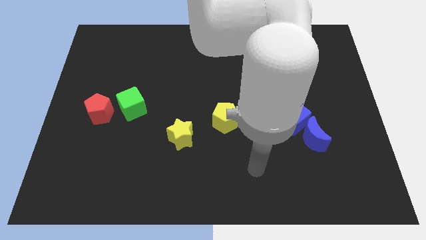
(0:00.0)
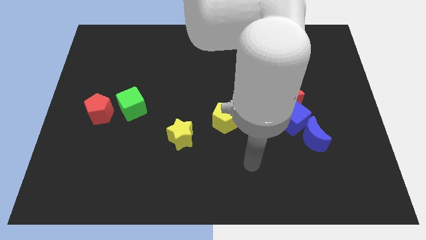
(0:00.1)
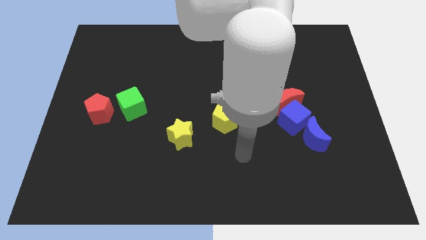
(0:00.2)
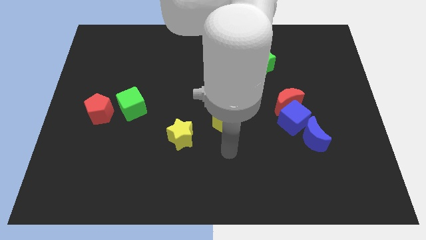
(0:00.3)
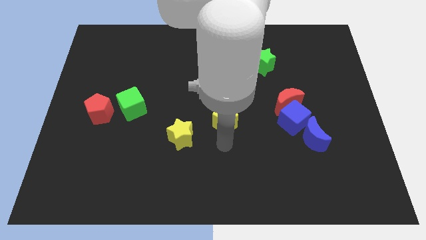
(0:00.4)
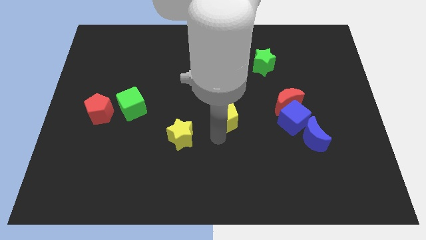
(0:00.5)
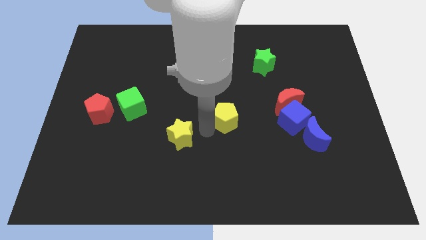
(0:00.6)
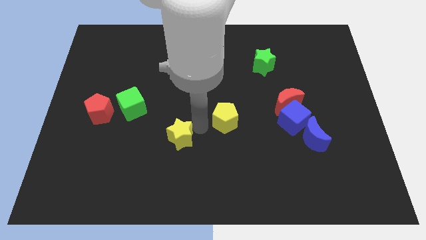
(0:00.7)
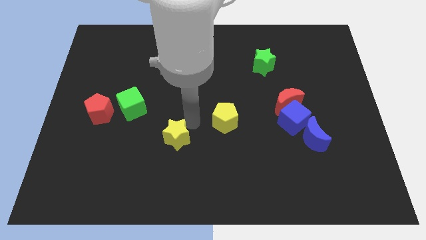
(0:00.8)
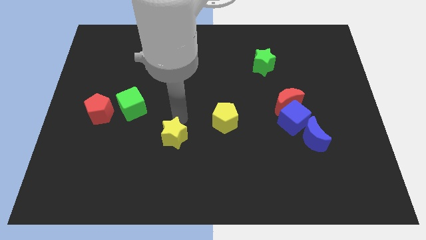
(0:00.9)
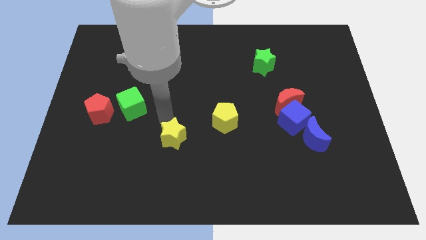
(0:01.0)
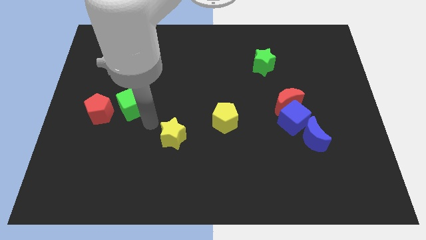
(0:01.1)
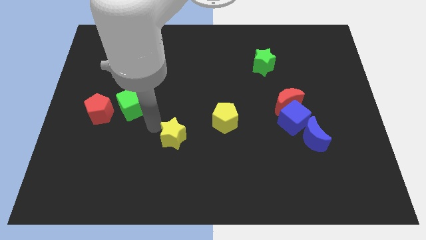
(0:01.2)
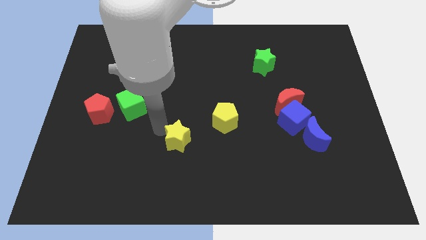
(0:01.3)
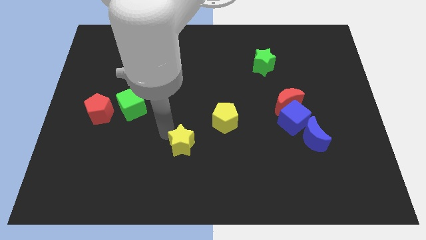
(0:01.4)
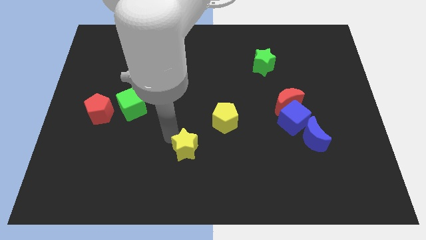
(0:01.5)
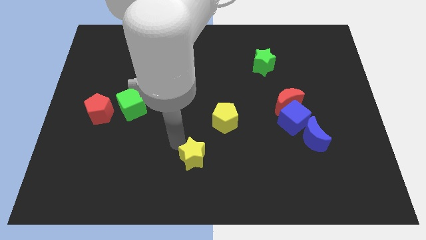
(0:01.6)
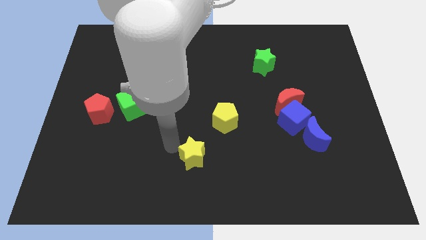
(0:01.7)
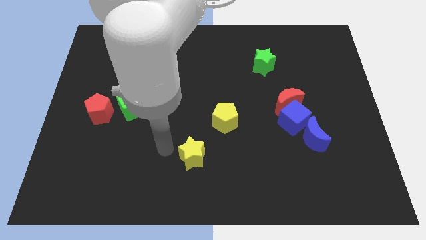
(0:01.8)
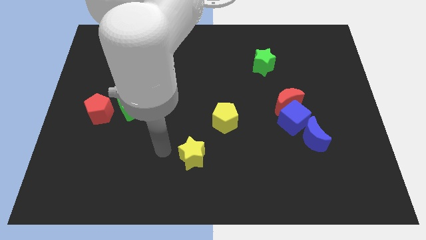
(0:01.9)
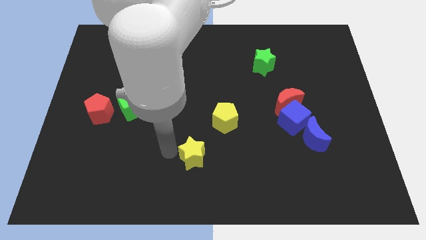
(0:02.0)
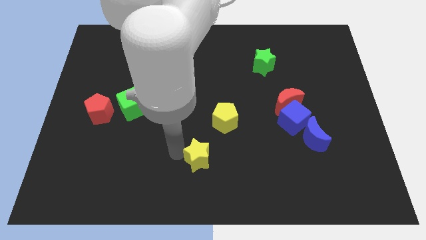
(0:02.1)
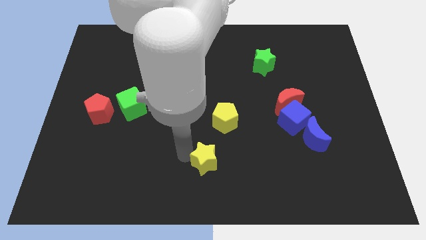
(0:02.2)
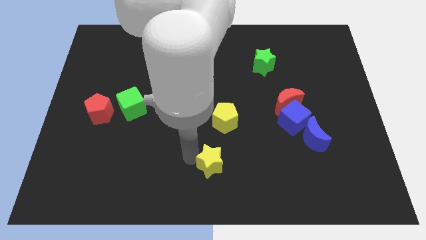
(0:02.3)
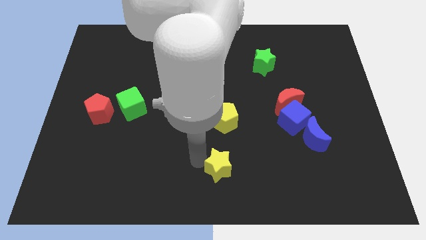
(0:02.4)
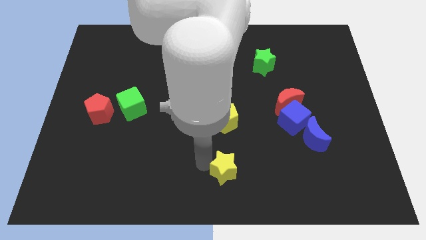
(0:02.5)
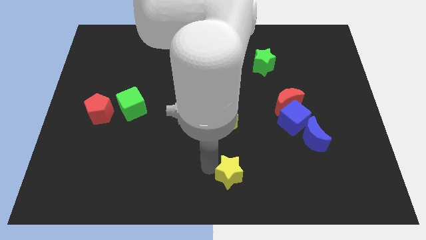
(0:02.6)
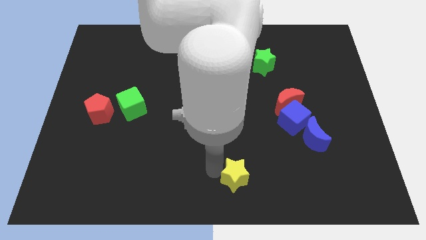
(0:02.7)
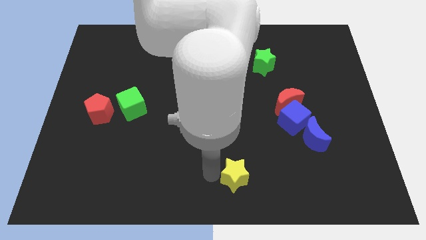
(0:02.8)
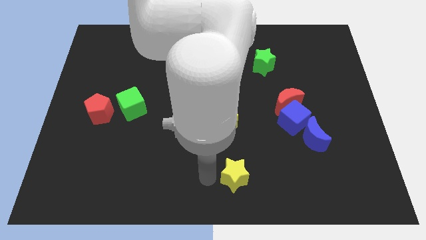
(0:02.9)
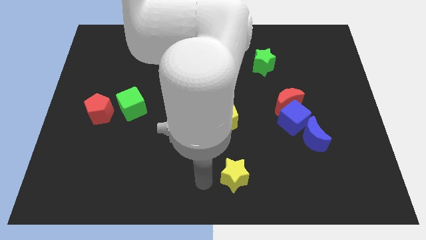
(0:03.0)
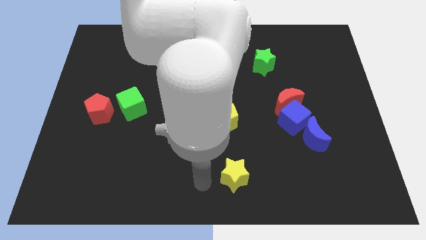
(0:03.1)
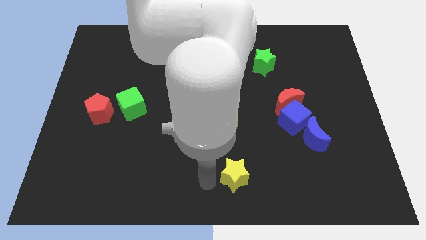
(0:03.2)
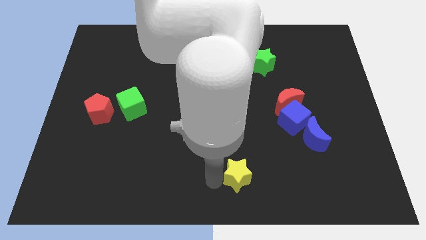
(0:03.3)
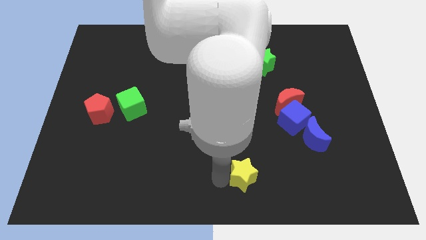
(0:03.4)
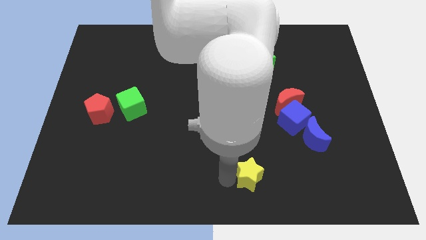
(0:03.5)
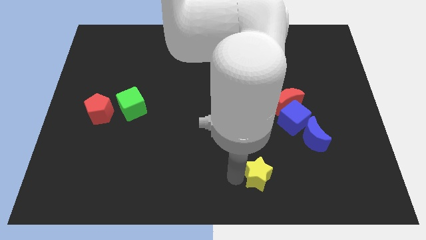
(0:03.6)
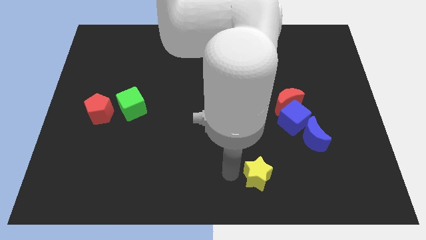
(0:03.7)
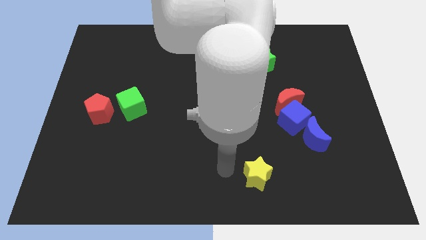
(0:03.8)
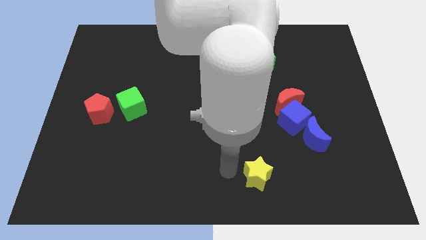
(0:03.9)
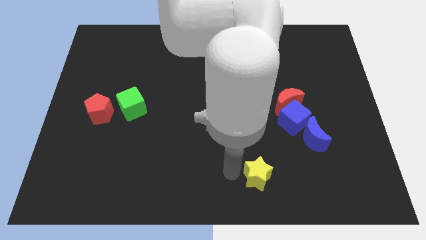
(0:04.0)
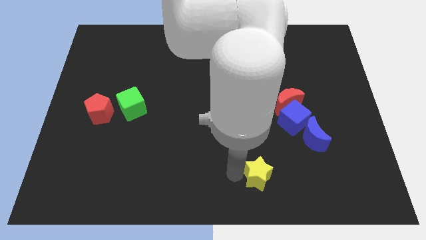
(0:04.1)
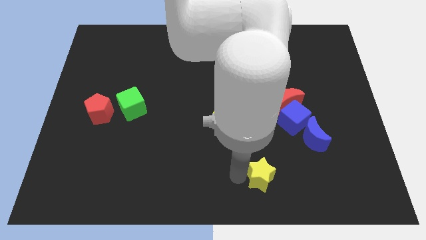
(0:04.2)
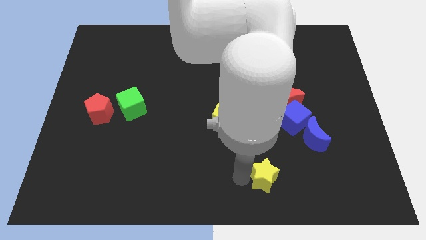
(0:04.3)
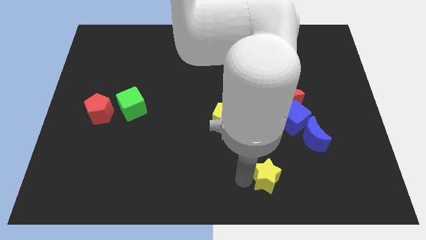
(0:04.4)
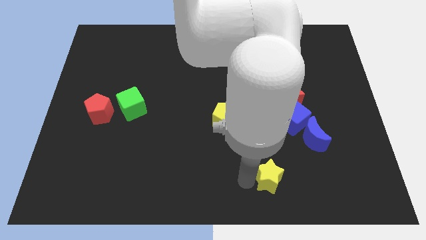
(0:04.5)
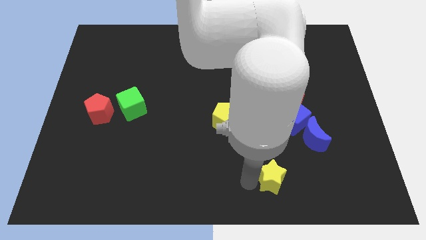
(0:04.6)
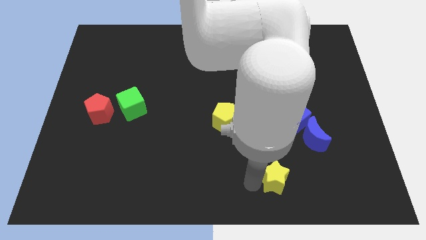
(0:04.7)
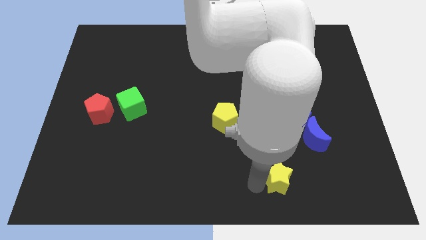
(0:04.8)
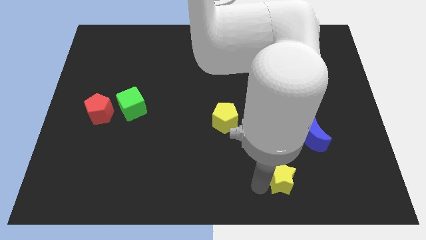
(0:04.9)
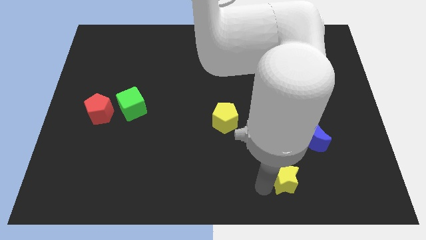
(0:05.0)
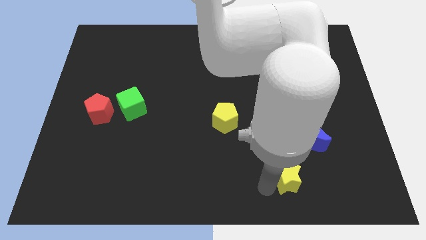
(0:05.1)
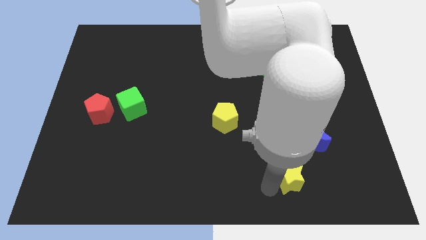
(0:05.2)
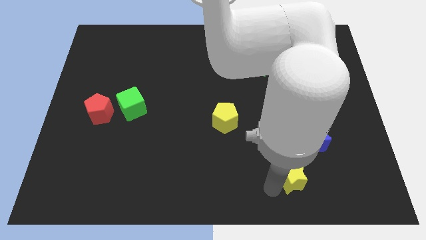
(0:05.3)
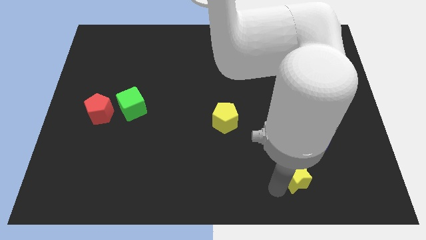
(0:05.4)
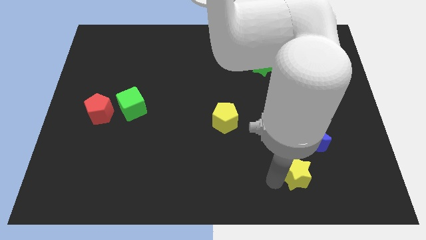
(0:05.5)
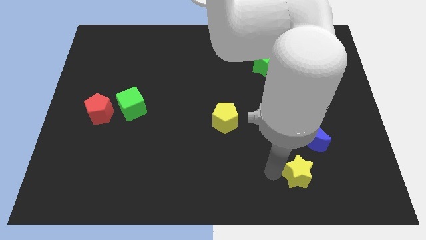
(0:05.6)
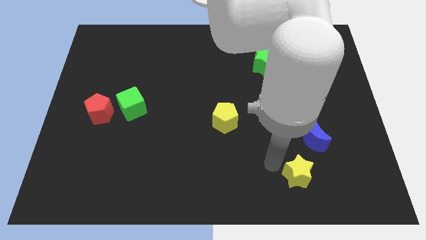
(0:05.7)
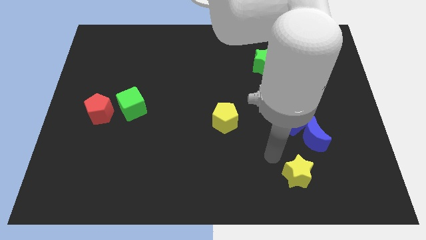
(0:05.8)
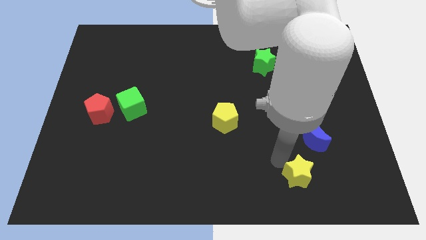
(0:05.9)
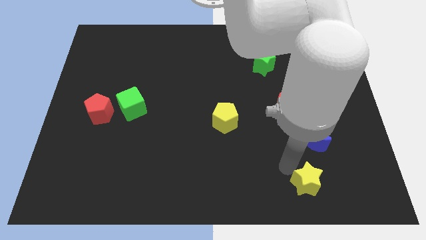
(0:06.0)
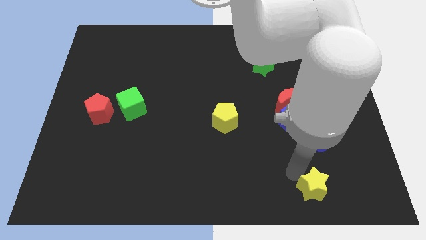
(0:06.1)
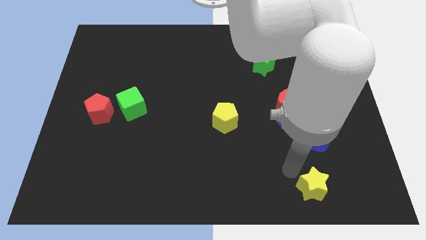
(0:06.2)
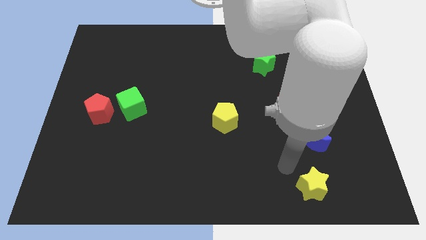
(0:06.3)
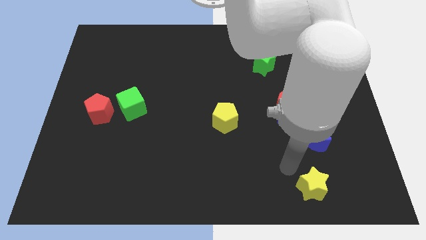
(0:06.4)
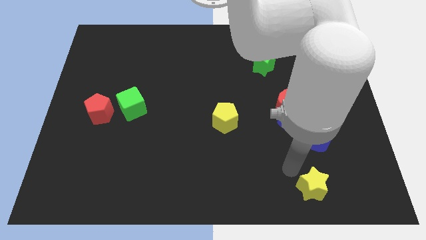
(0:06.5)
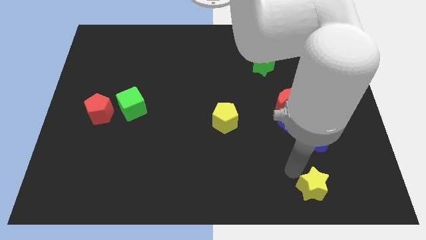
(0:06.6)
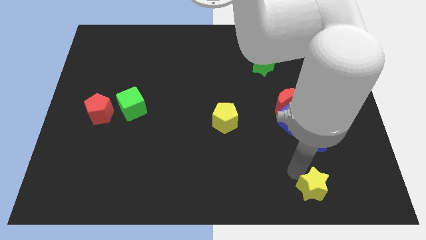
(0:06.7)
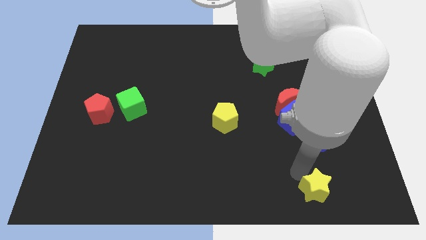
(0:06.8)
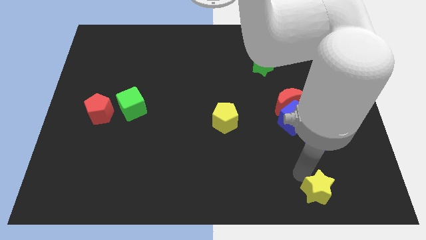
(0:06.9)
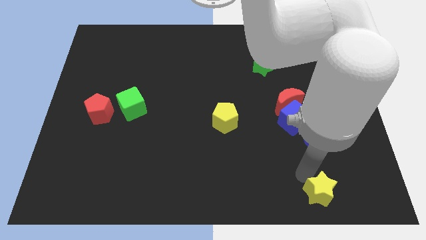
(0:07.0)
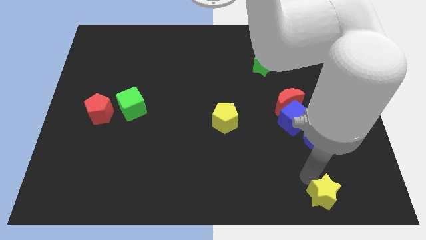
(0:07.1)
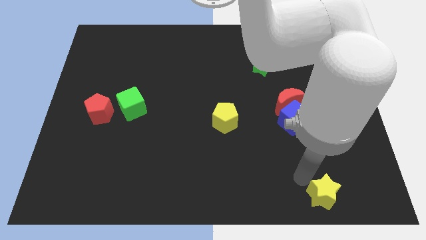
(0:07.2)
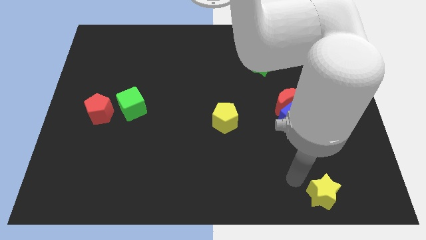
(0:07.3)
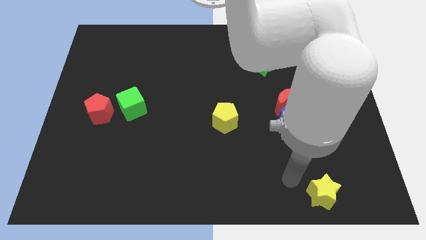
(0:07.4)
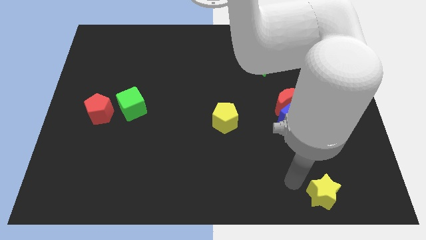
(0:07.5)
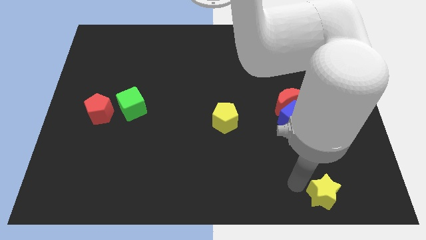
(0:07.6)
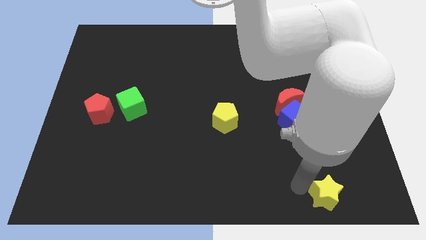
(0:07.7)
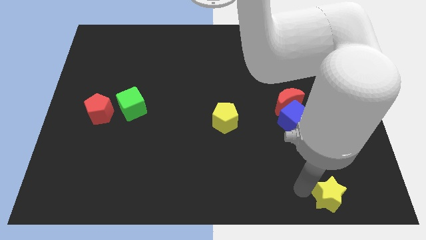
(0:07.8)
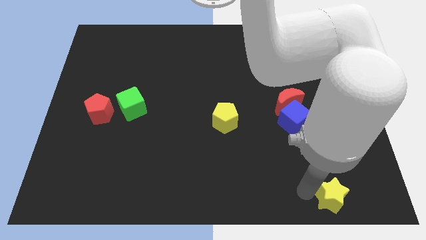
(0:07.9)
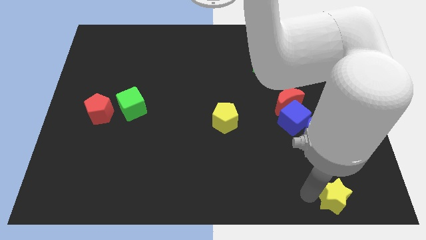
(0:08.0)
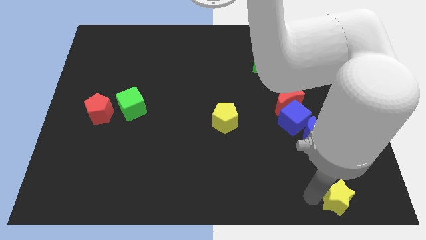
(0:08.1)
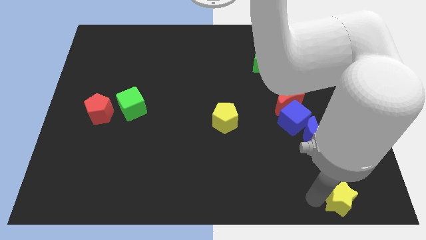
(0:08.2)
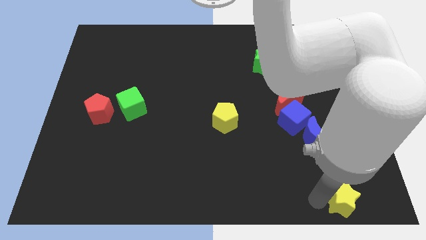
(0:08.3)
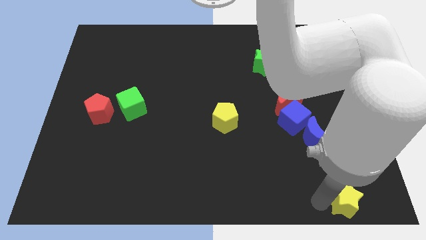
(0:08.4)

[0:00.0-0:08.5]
push the yellow star to the bottom right corner
